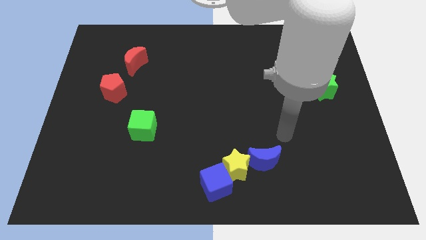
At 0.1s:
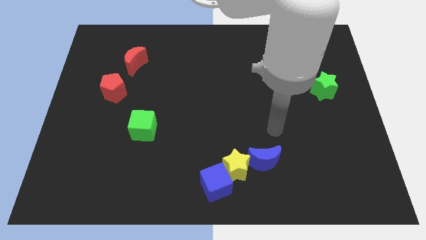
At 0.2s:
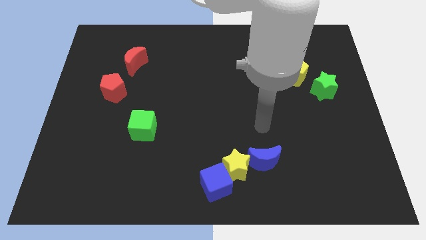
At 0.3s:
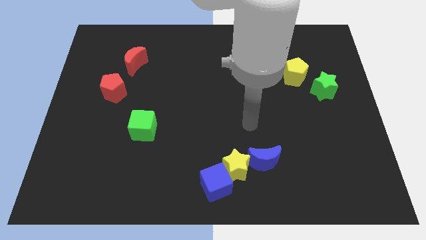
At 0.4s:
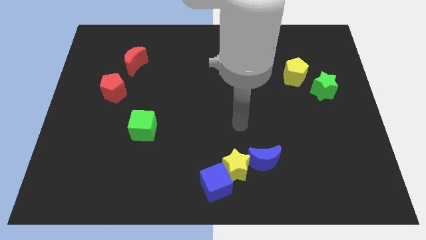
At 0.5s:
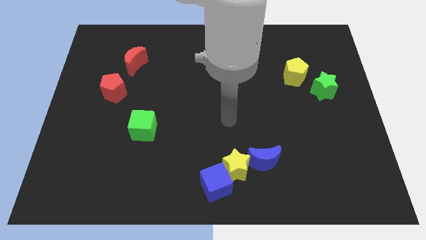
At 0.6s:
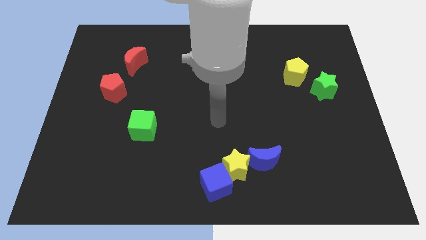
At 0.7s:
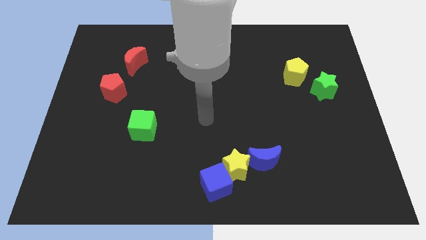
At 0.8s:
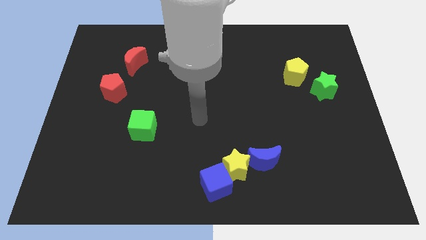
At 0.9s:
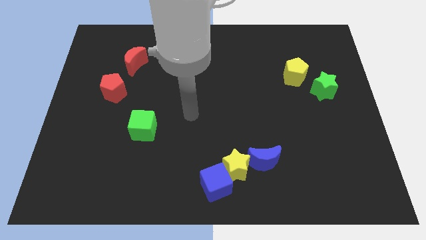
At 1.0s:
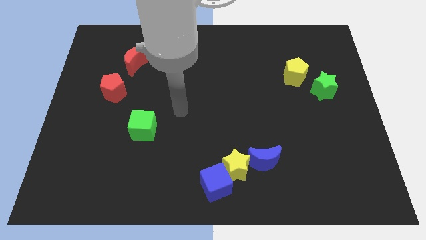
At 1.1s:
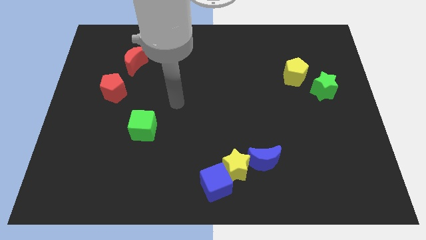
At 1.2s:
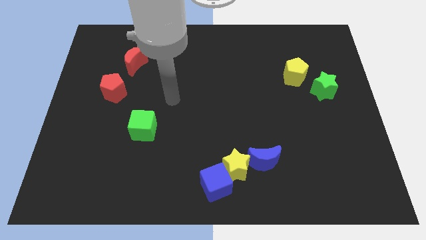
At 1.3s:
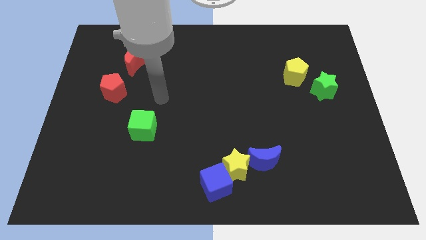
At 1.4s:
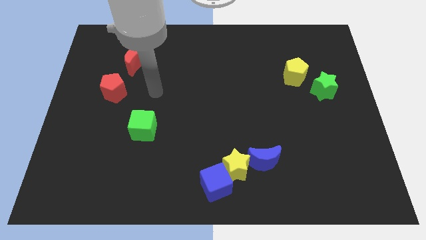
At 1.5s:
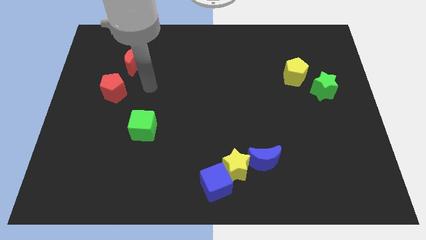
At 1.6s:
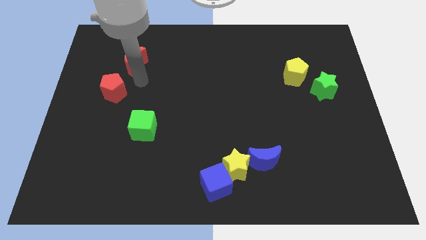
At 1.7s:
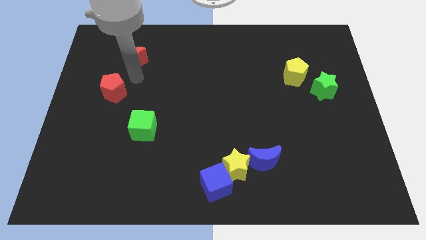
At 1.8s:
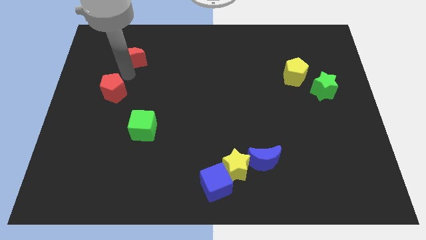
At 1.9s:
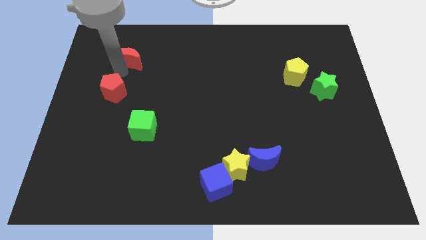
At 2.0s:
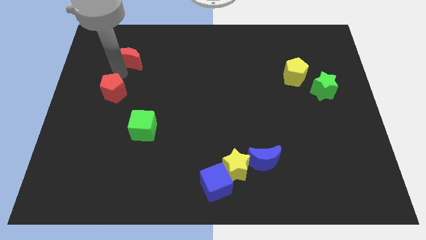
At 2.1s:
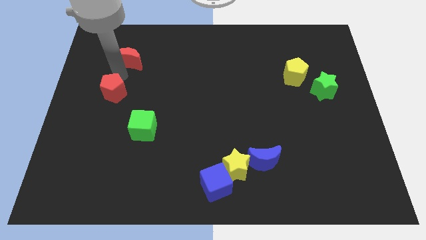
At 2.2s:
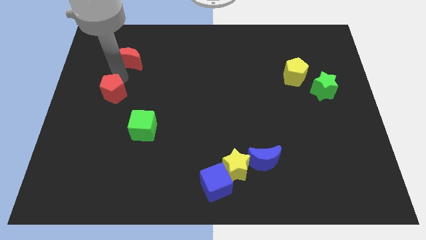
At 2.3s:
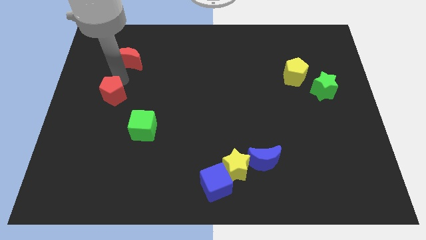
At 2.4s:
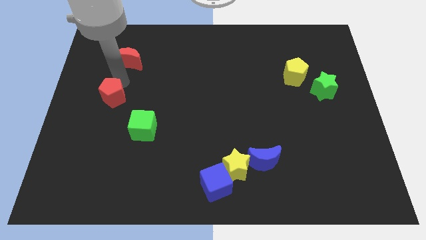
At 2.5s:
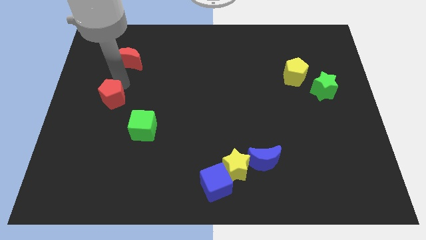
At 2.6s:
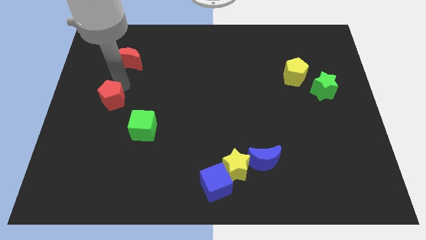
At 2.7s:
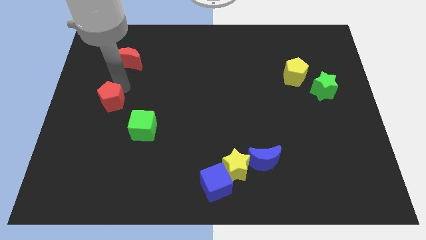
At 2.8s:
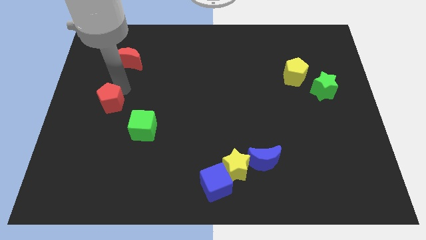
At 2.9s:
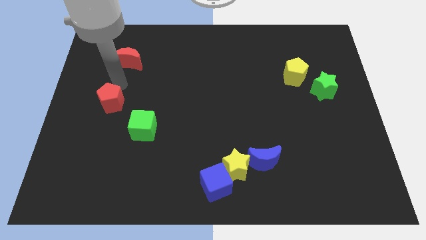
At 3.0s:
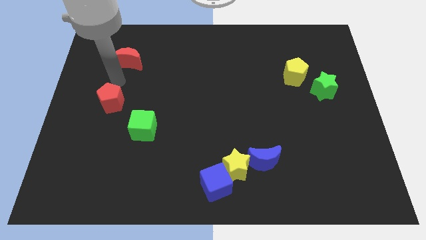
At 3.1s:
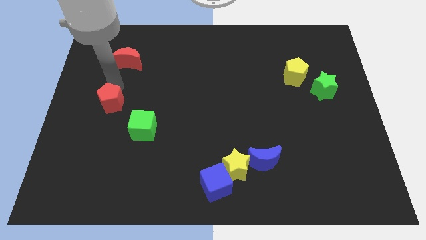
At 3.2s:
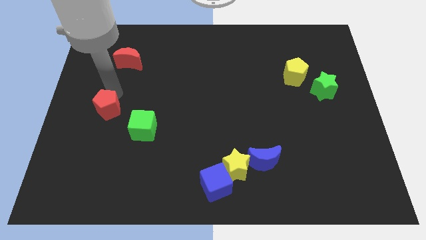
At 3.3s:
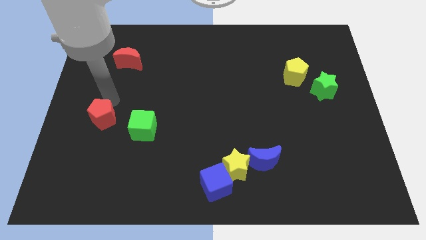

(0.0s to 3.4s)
slide the red pentagon downwards somewhat

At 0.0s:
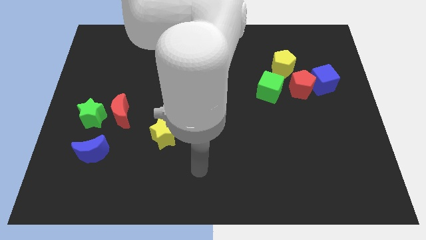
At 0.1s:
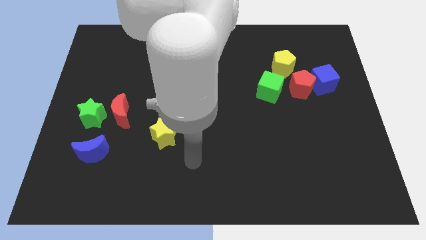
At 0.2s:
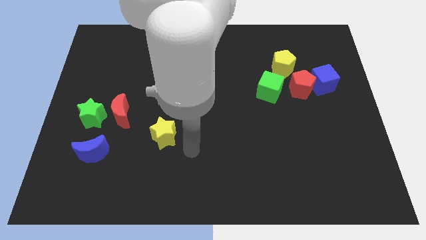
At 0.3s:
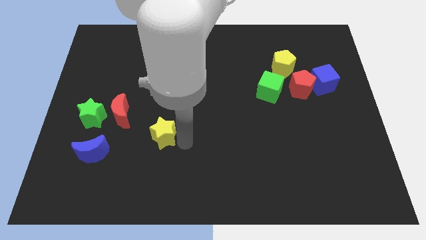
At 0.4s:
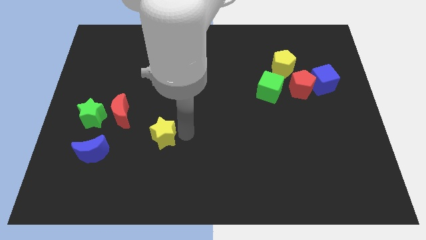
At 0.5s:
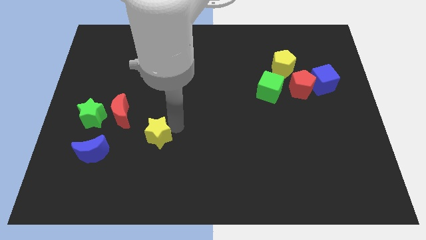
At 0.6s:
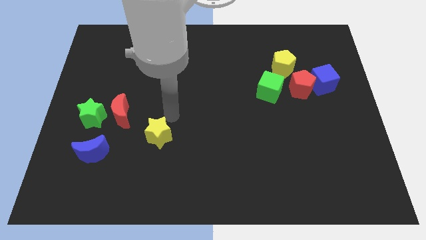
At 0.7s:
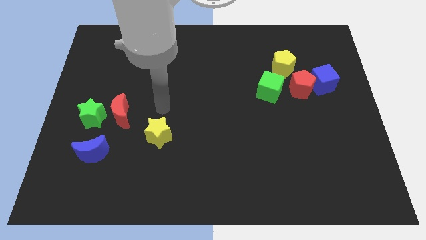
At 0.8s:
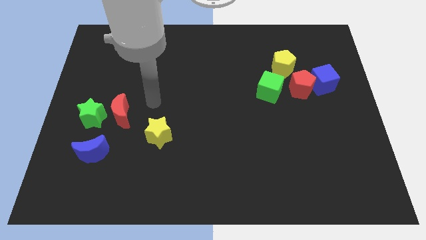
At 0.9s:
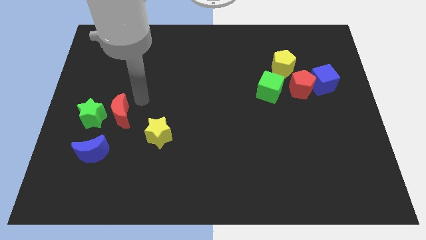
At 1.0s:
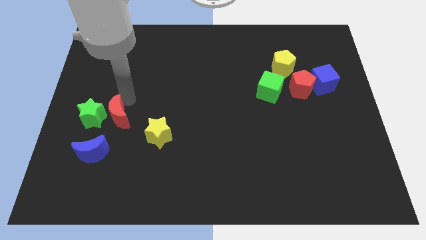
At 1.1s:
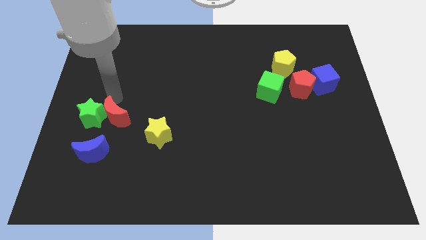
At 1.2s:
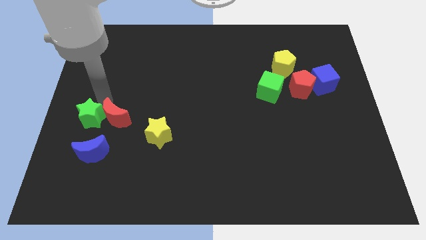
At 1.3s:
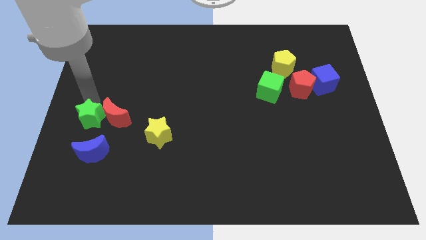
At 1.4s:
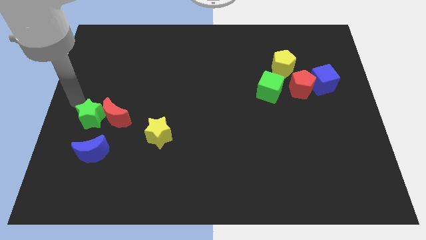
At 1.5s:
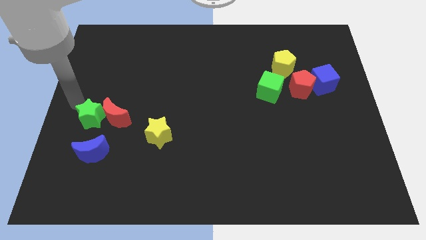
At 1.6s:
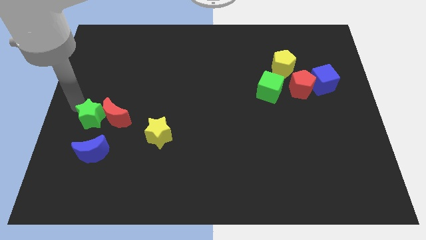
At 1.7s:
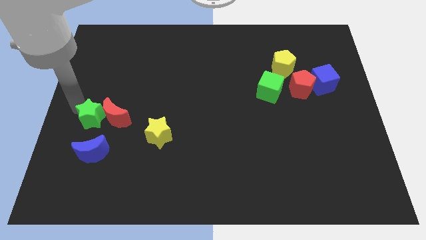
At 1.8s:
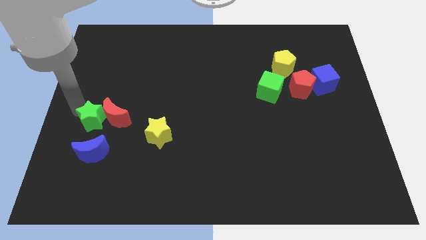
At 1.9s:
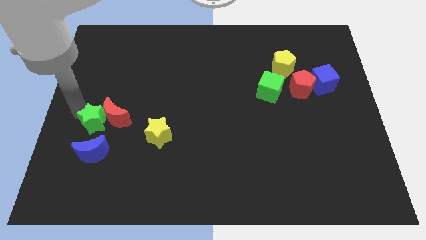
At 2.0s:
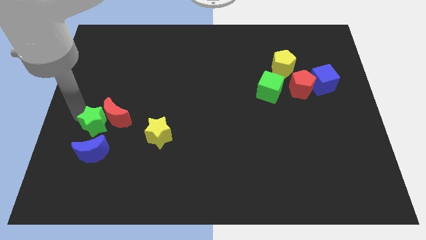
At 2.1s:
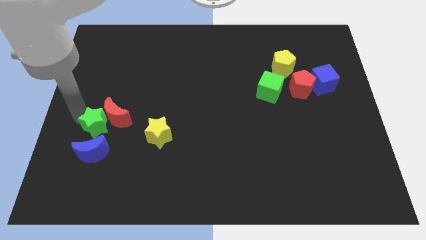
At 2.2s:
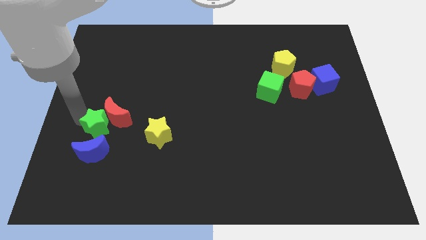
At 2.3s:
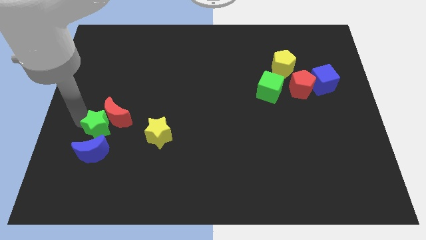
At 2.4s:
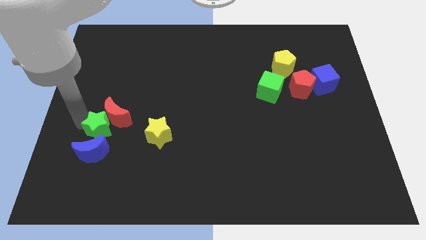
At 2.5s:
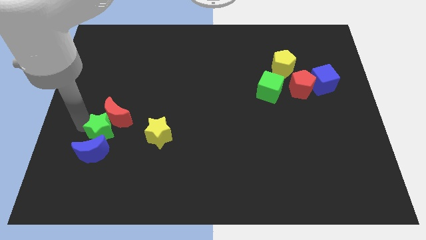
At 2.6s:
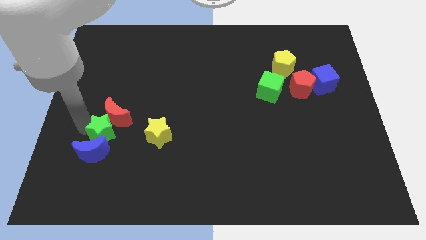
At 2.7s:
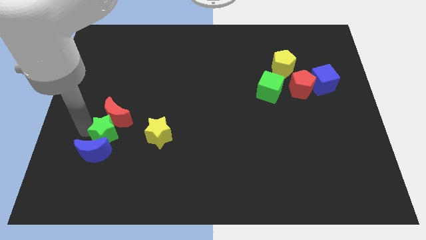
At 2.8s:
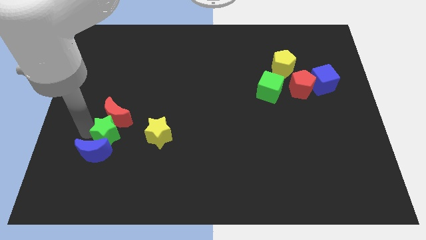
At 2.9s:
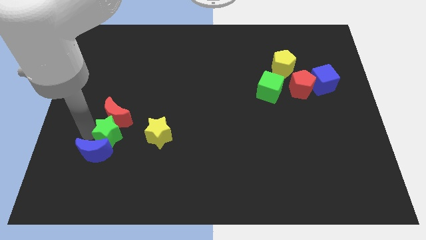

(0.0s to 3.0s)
slide the green star a little bit down and to the right diagonally

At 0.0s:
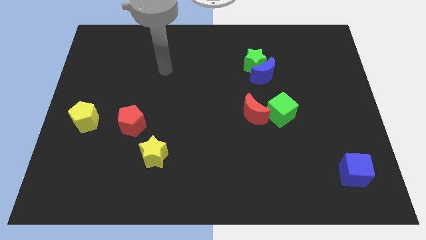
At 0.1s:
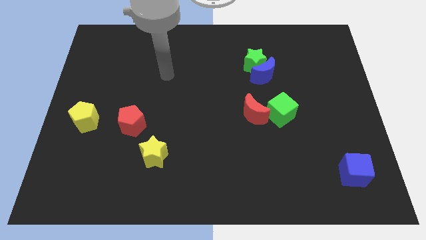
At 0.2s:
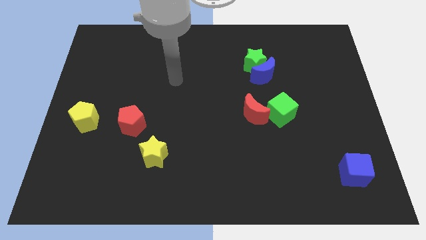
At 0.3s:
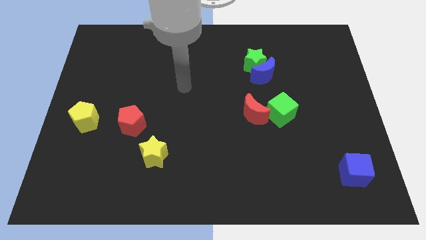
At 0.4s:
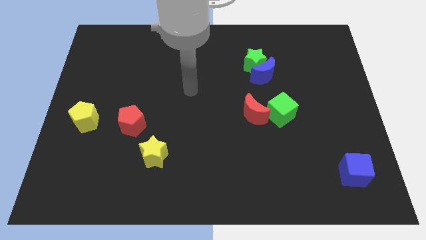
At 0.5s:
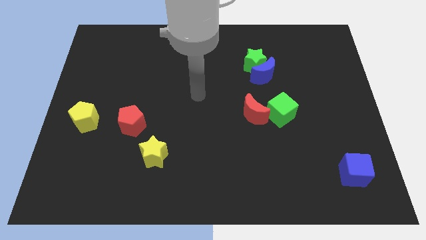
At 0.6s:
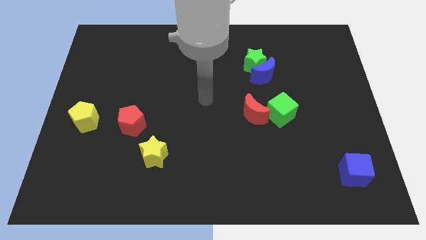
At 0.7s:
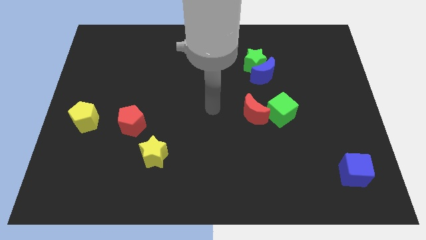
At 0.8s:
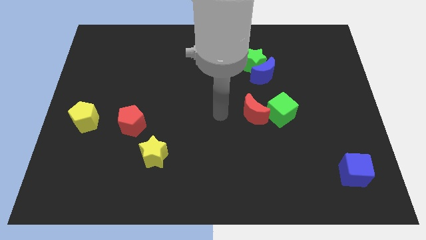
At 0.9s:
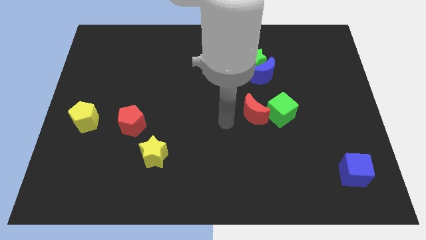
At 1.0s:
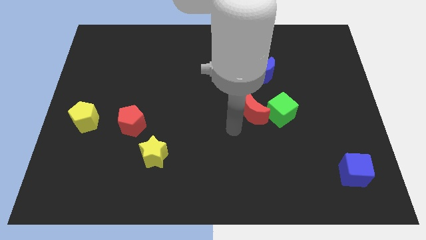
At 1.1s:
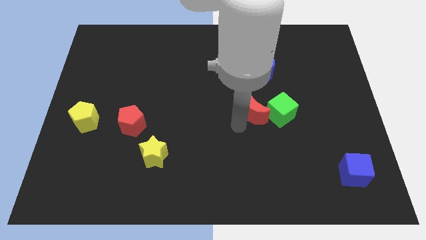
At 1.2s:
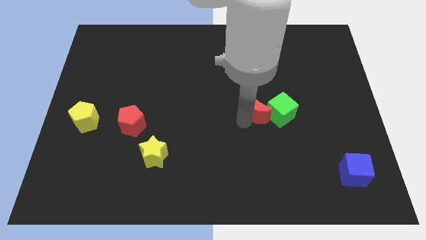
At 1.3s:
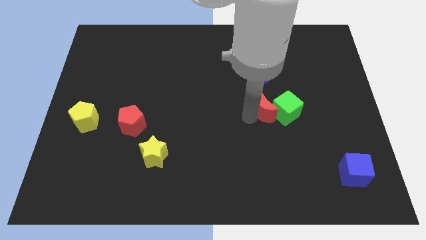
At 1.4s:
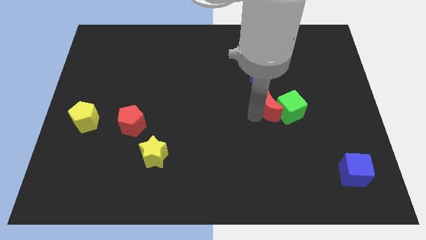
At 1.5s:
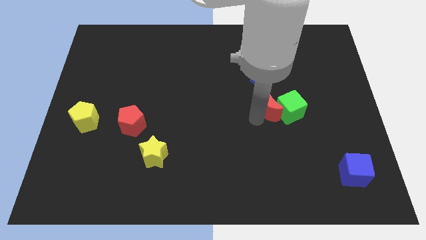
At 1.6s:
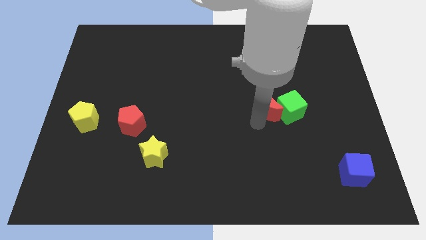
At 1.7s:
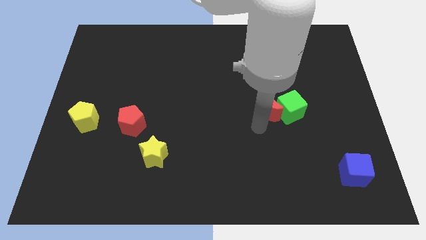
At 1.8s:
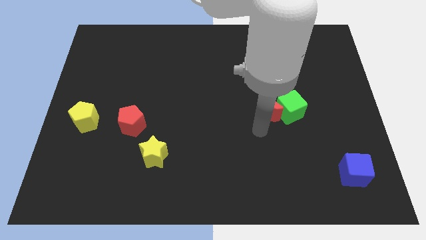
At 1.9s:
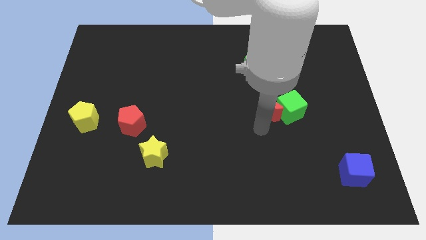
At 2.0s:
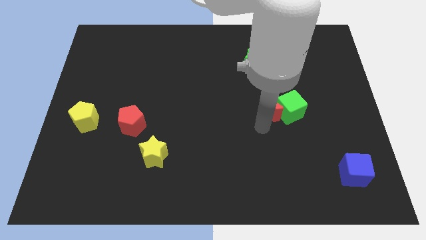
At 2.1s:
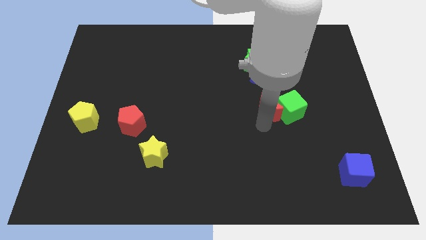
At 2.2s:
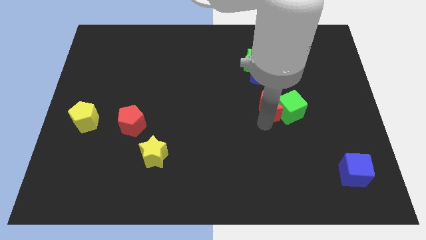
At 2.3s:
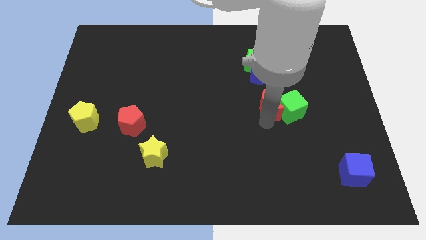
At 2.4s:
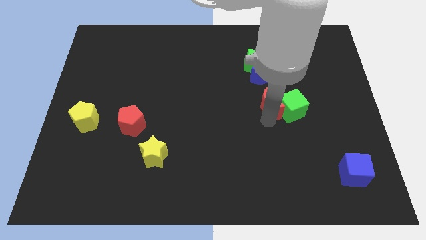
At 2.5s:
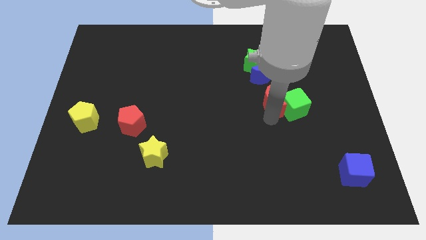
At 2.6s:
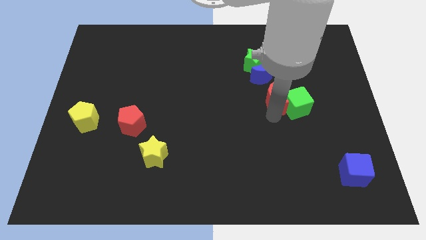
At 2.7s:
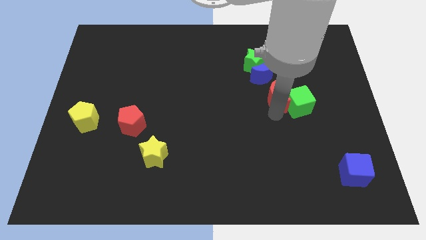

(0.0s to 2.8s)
push the red moon diagonally up and right a little bit
